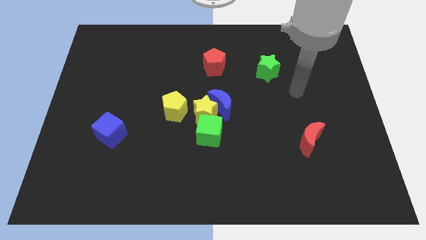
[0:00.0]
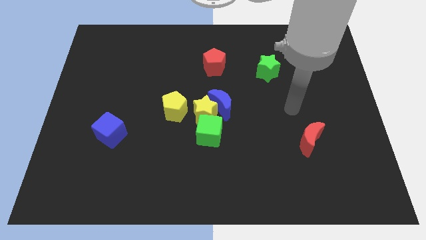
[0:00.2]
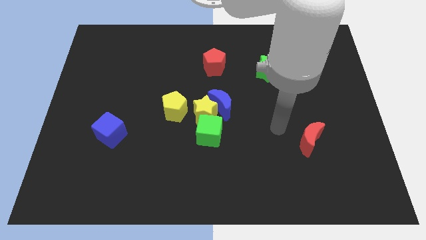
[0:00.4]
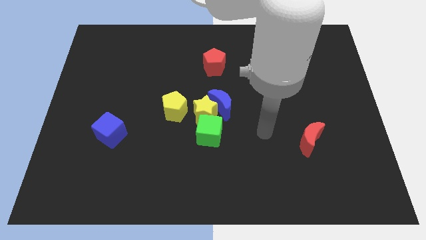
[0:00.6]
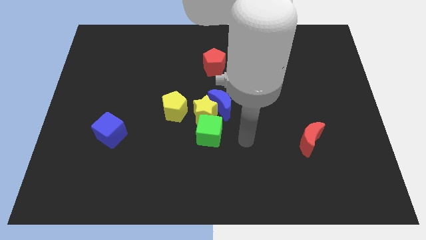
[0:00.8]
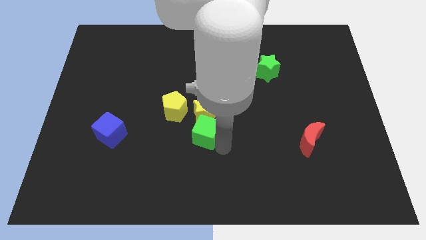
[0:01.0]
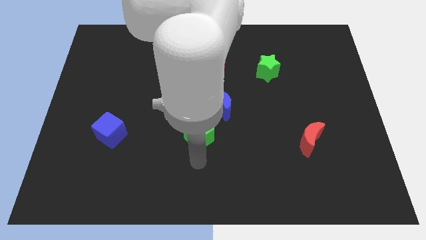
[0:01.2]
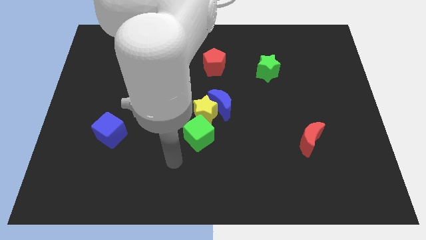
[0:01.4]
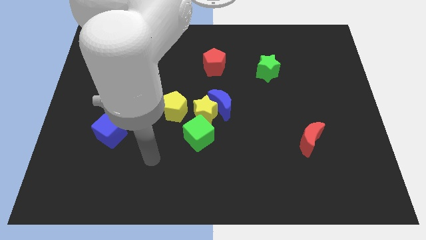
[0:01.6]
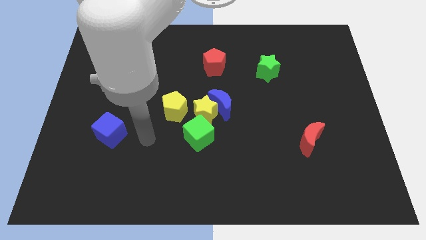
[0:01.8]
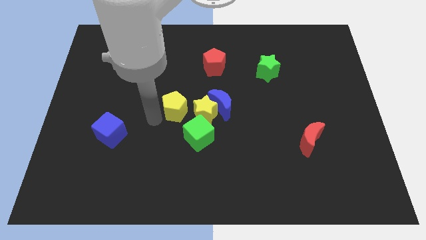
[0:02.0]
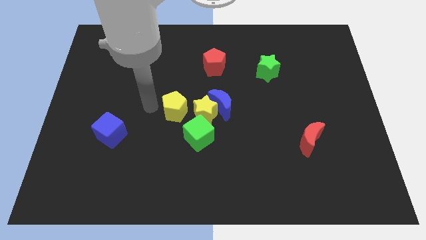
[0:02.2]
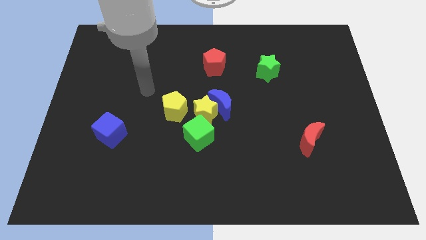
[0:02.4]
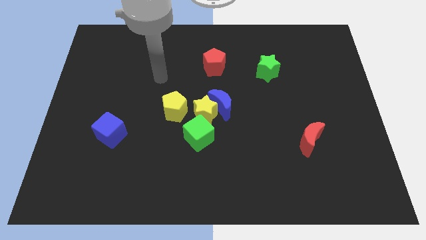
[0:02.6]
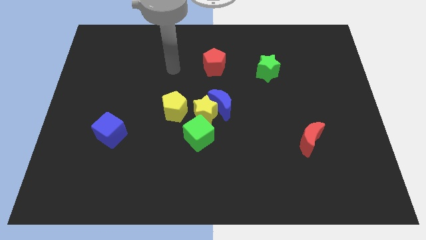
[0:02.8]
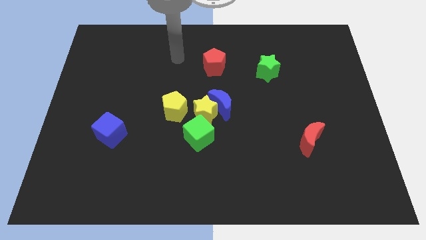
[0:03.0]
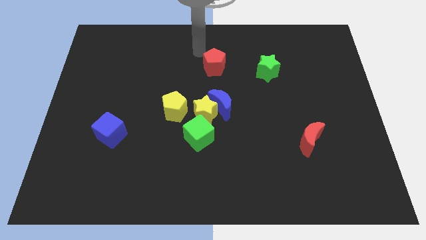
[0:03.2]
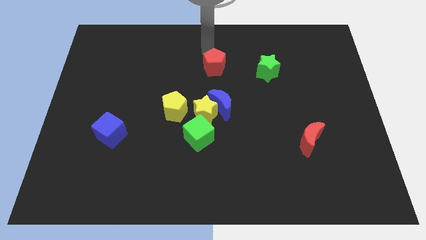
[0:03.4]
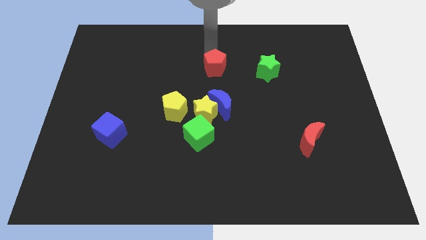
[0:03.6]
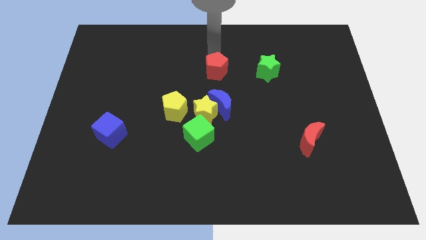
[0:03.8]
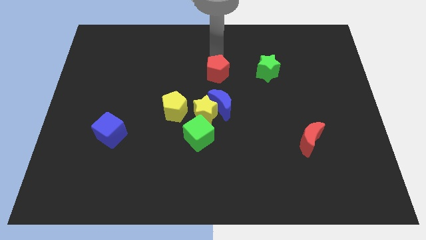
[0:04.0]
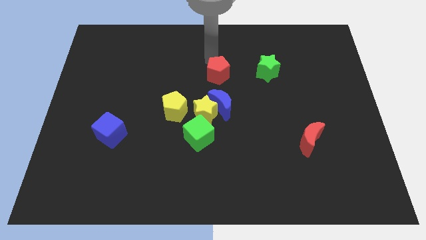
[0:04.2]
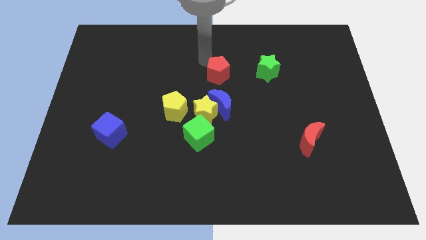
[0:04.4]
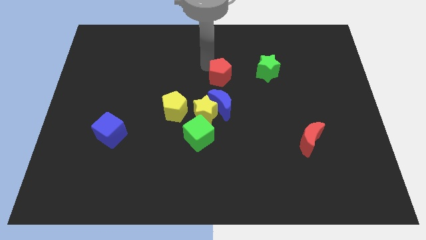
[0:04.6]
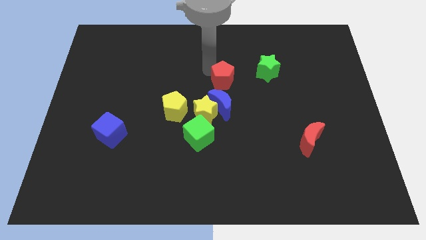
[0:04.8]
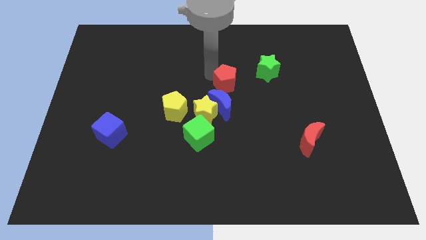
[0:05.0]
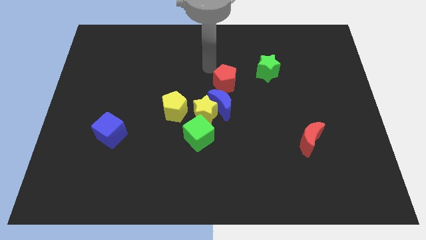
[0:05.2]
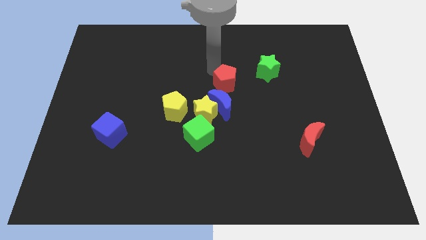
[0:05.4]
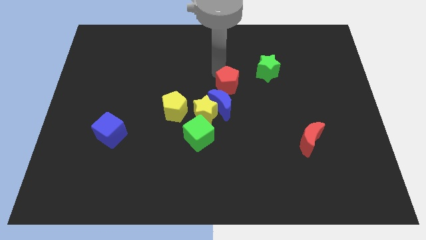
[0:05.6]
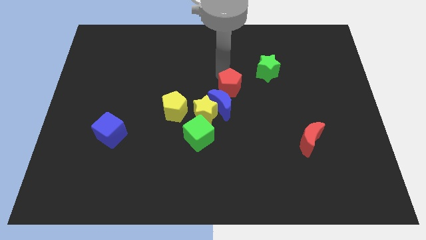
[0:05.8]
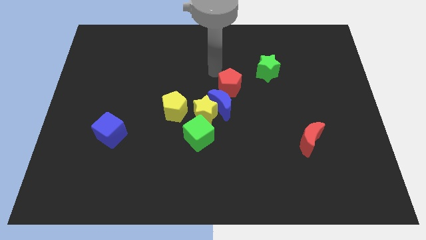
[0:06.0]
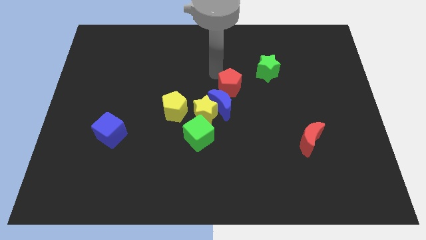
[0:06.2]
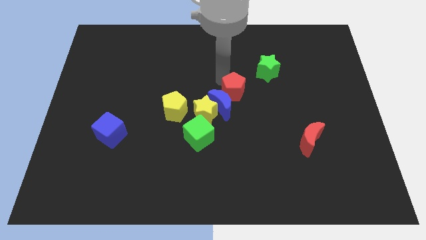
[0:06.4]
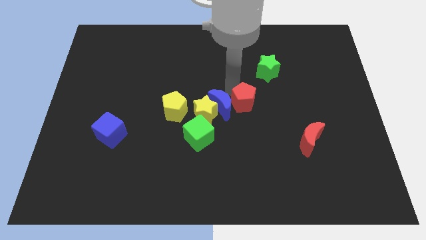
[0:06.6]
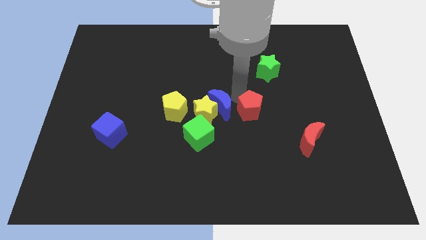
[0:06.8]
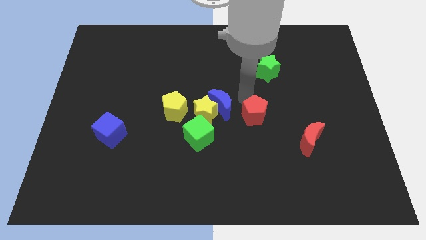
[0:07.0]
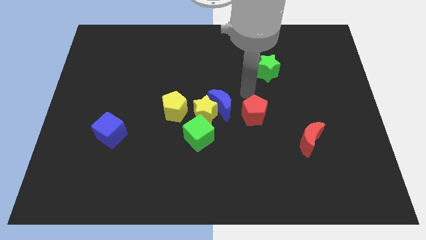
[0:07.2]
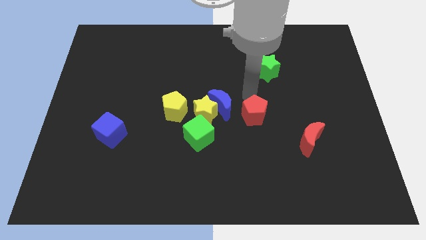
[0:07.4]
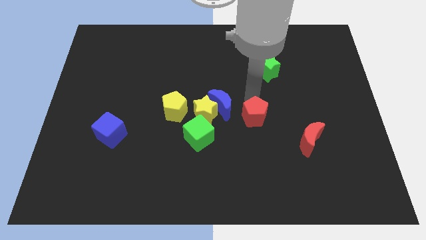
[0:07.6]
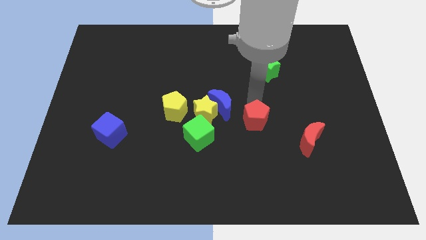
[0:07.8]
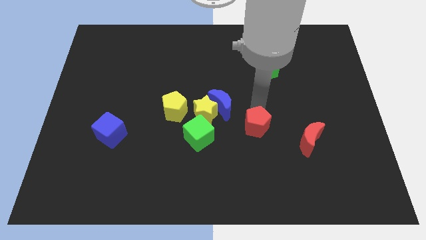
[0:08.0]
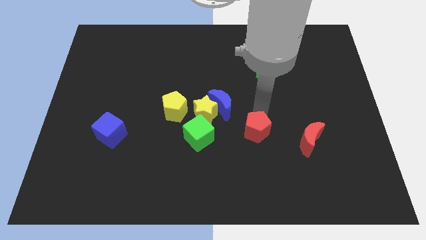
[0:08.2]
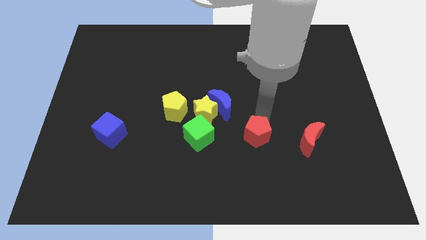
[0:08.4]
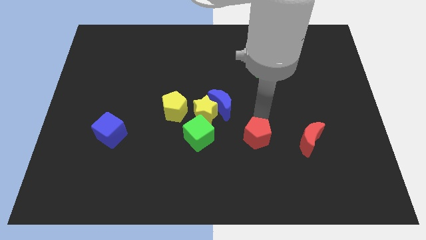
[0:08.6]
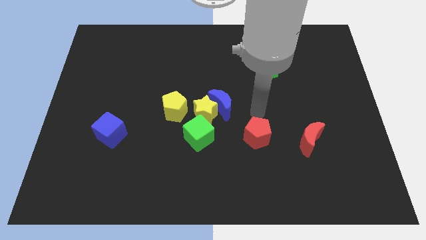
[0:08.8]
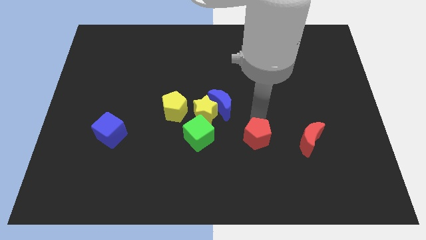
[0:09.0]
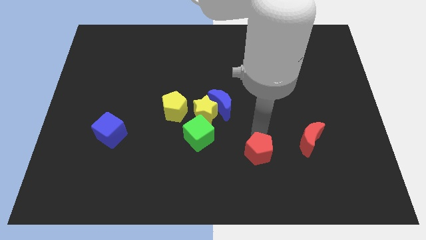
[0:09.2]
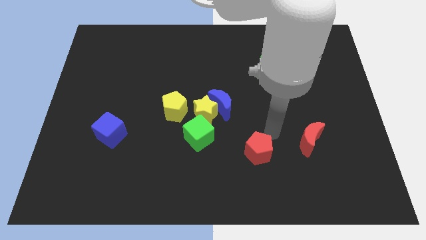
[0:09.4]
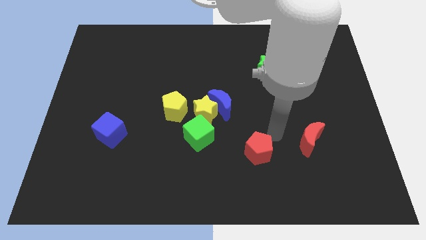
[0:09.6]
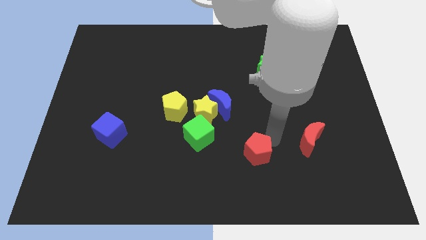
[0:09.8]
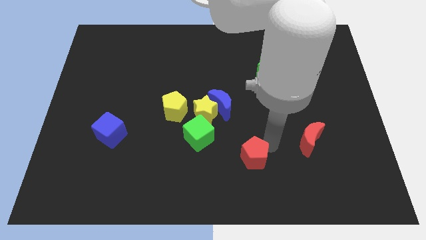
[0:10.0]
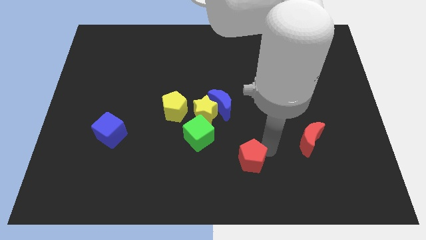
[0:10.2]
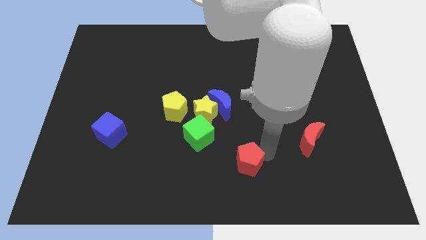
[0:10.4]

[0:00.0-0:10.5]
push the red pentagon to the bottom

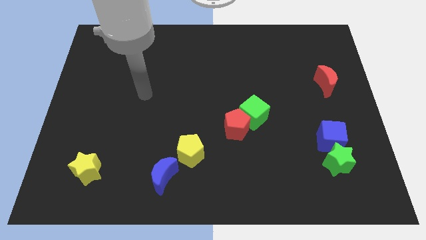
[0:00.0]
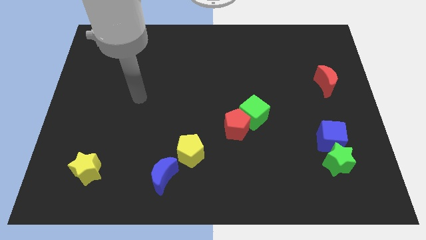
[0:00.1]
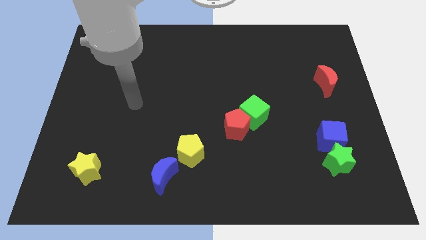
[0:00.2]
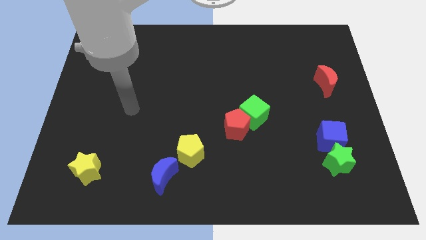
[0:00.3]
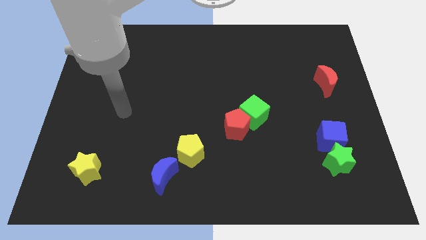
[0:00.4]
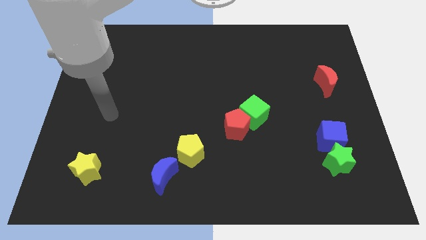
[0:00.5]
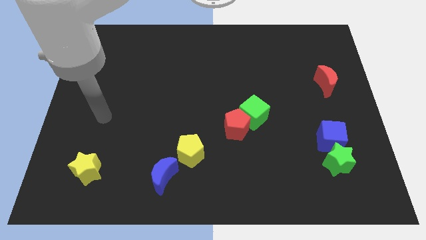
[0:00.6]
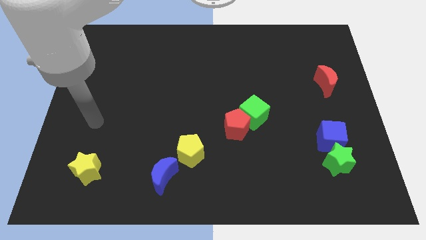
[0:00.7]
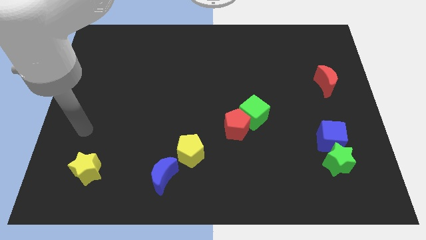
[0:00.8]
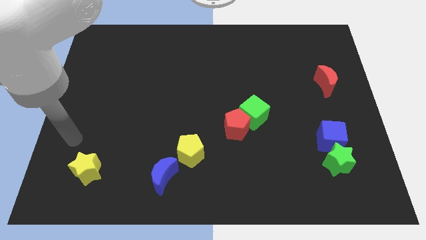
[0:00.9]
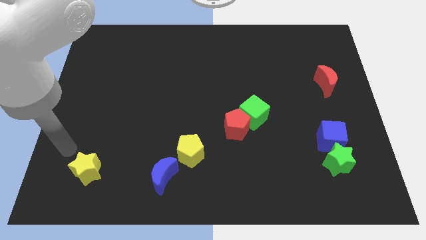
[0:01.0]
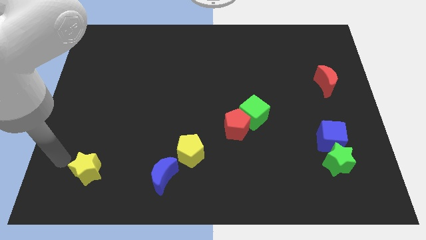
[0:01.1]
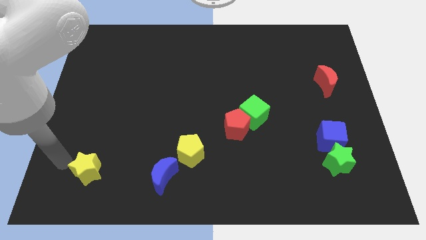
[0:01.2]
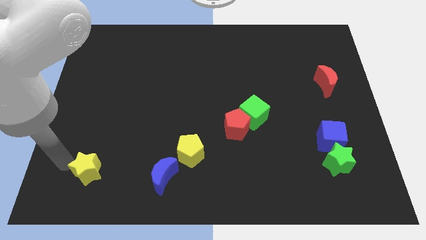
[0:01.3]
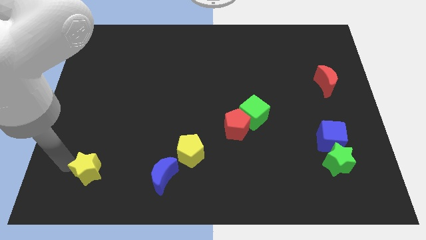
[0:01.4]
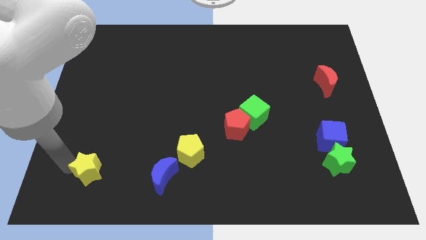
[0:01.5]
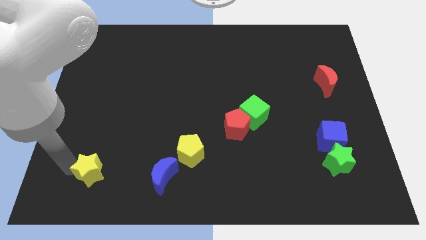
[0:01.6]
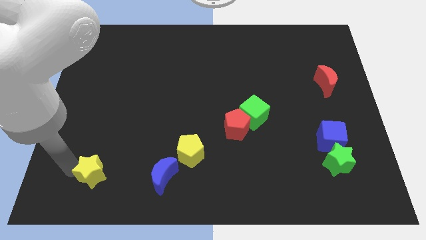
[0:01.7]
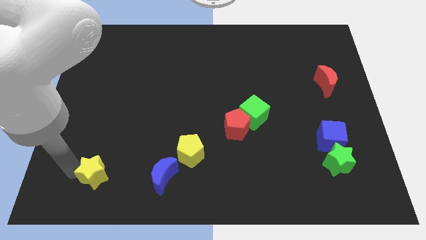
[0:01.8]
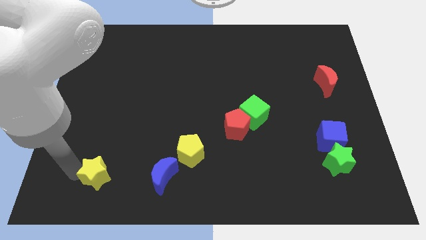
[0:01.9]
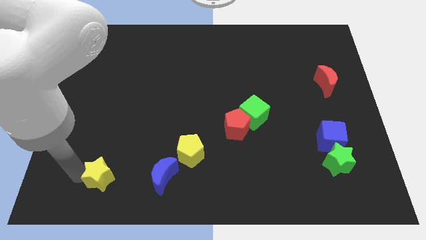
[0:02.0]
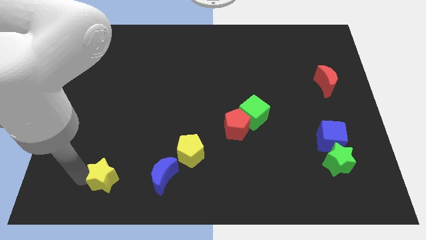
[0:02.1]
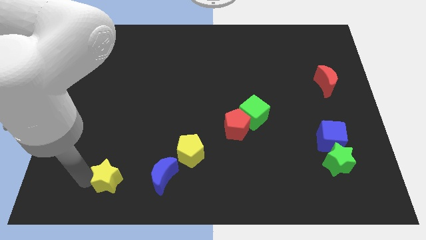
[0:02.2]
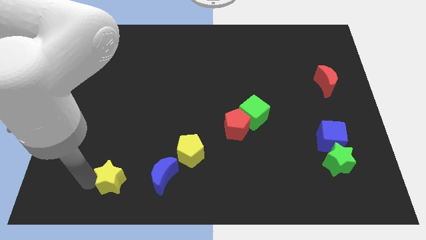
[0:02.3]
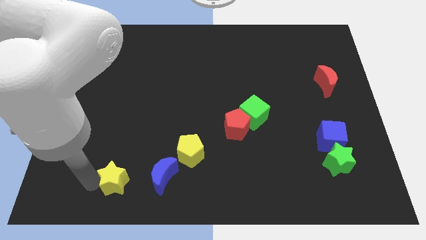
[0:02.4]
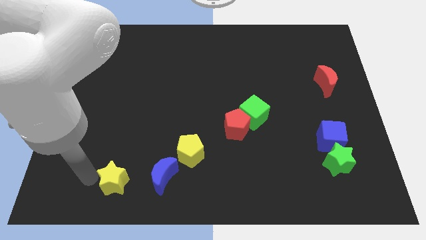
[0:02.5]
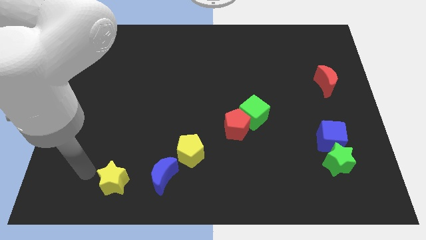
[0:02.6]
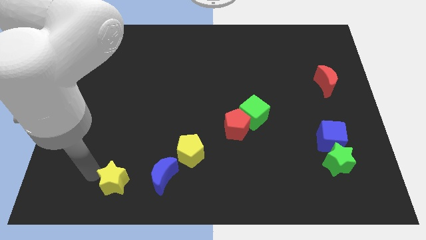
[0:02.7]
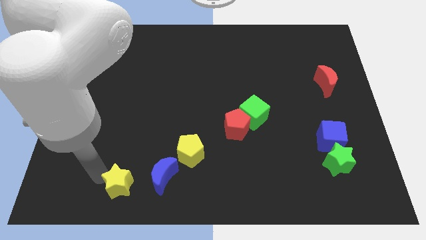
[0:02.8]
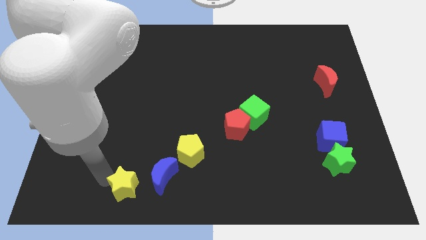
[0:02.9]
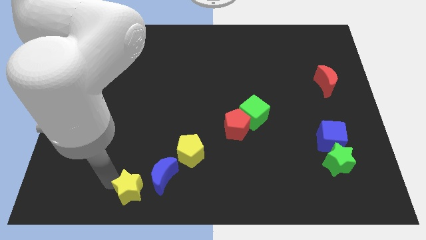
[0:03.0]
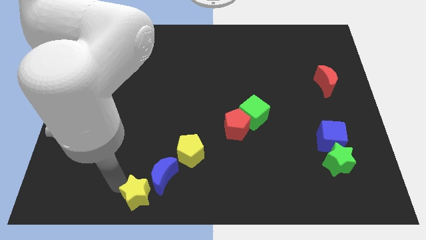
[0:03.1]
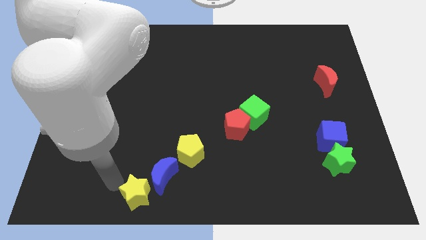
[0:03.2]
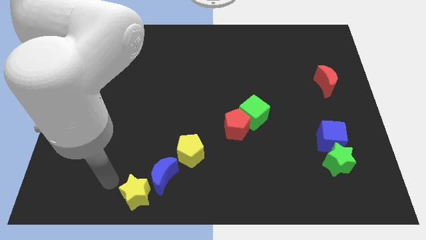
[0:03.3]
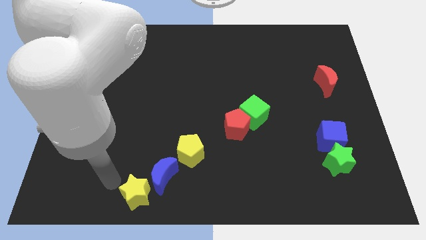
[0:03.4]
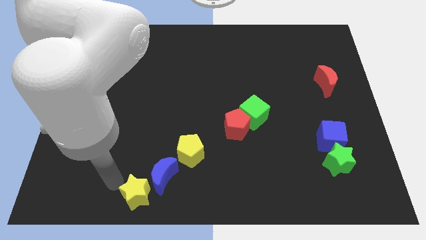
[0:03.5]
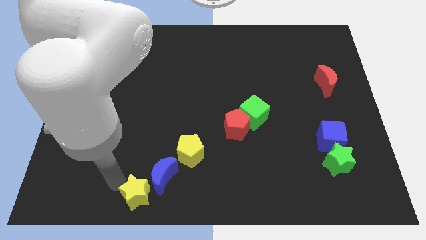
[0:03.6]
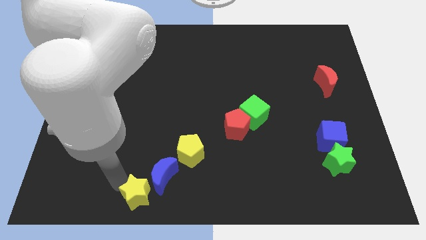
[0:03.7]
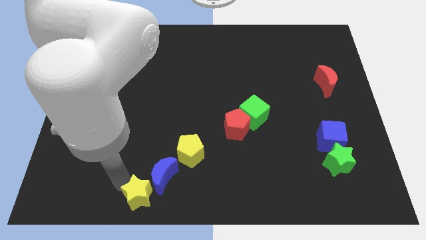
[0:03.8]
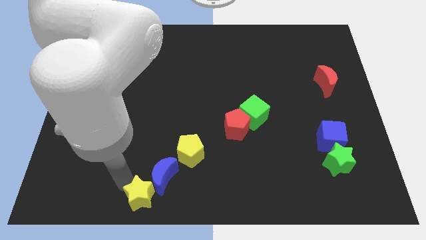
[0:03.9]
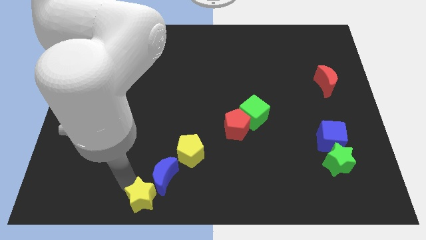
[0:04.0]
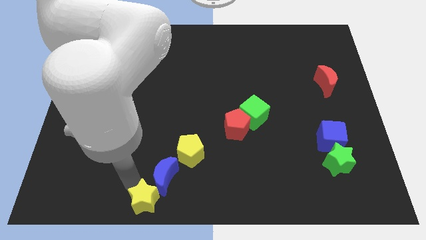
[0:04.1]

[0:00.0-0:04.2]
move the yellow star to the bottom side
